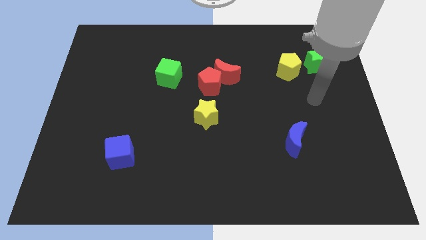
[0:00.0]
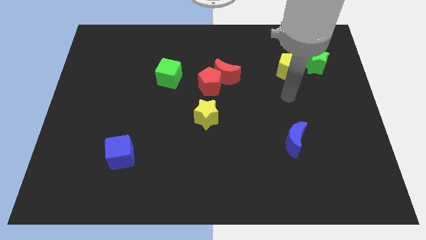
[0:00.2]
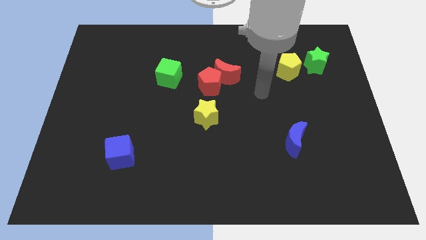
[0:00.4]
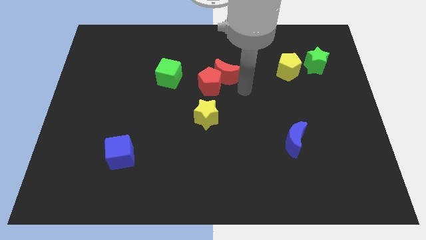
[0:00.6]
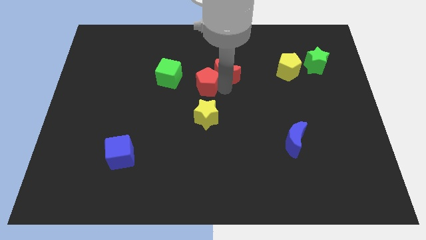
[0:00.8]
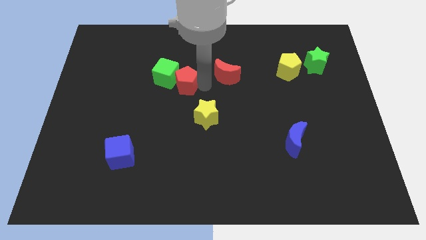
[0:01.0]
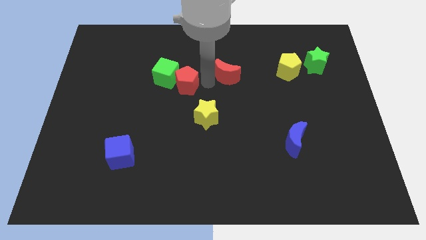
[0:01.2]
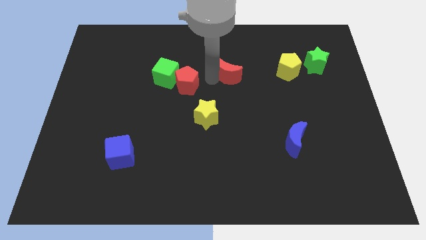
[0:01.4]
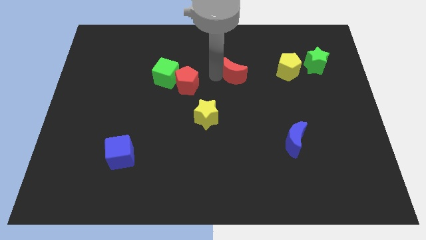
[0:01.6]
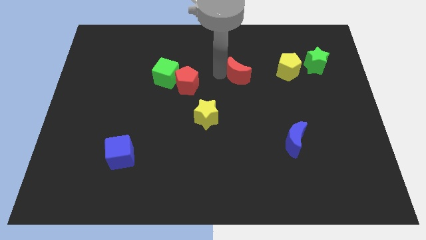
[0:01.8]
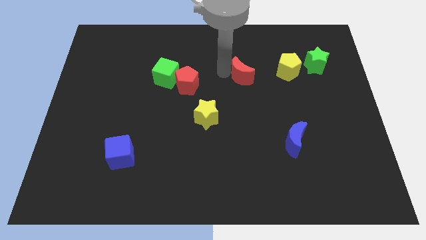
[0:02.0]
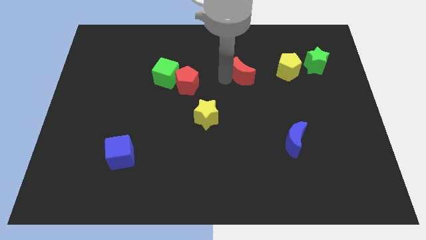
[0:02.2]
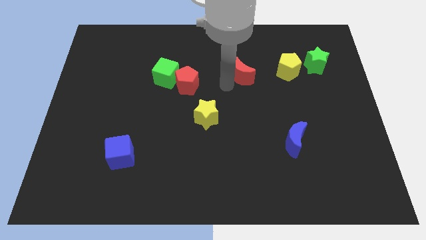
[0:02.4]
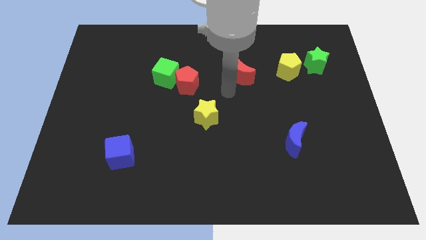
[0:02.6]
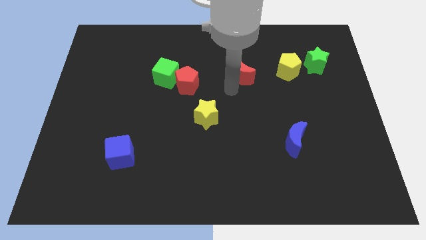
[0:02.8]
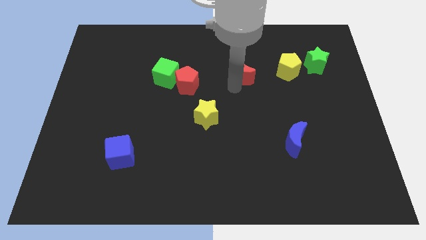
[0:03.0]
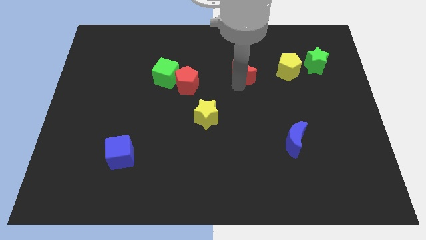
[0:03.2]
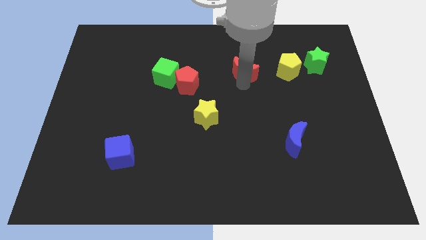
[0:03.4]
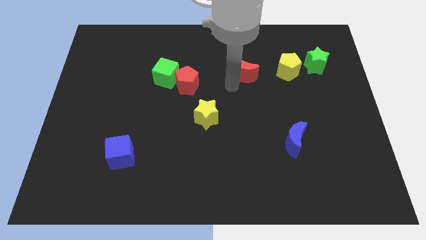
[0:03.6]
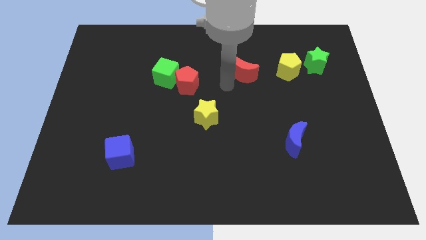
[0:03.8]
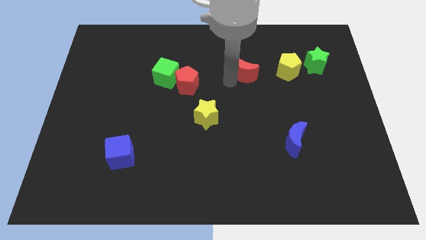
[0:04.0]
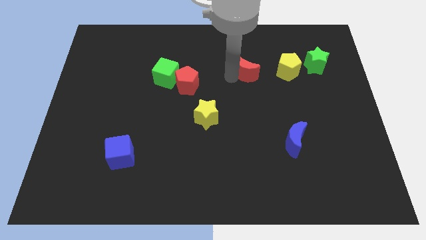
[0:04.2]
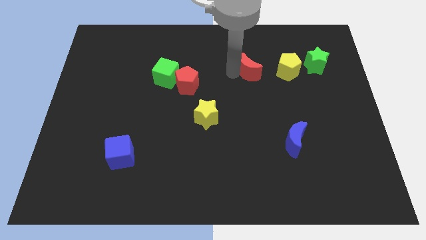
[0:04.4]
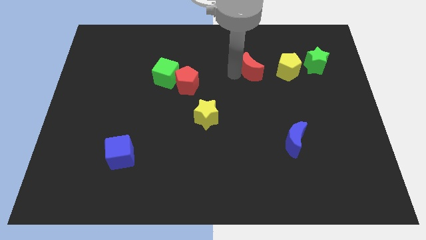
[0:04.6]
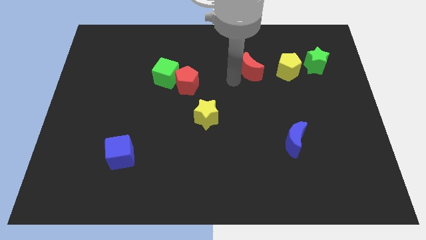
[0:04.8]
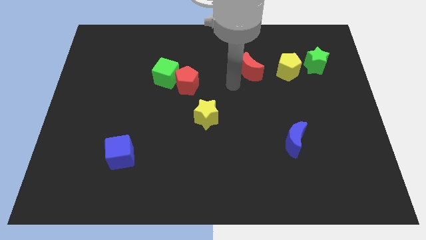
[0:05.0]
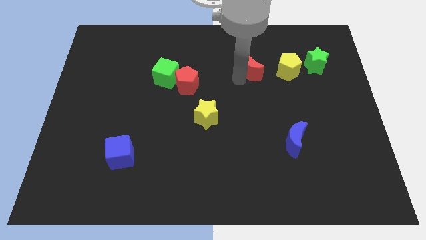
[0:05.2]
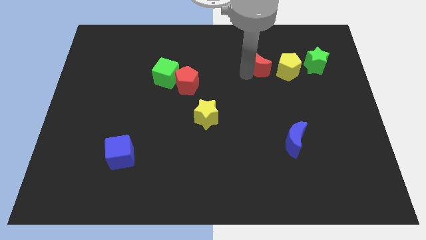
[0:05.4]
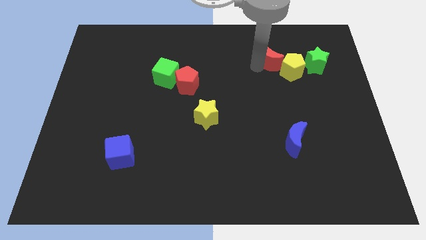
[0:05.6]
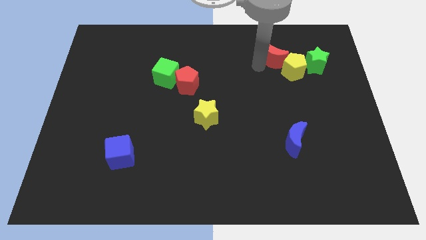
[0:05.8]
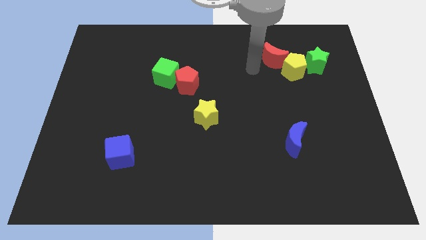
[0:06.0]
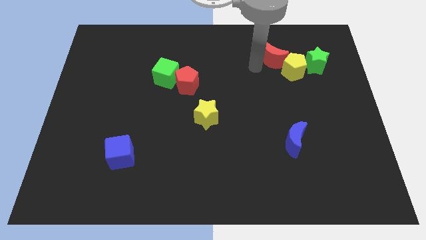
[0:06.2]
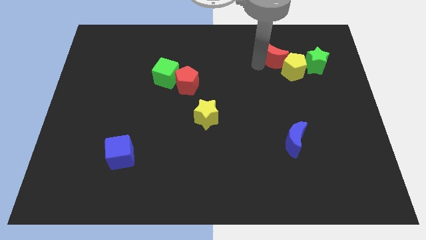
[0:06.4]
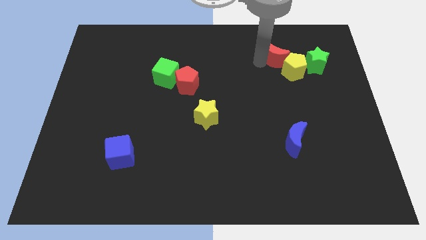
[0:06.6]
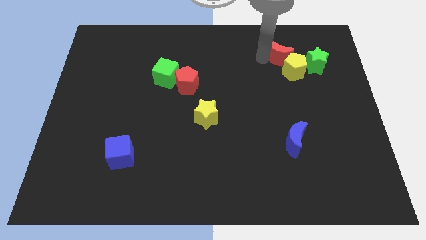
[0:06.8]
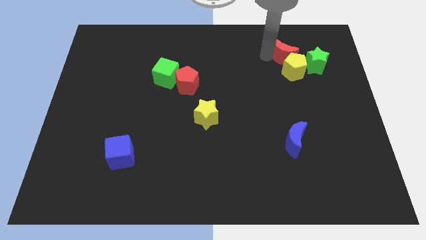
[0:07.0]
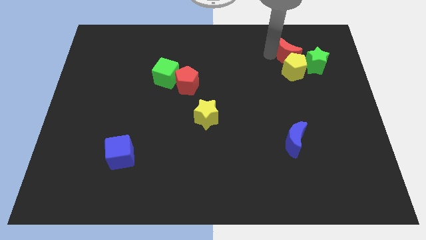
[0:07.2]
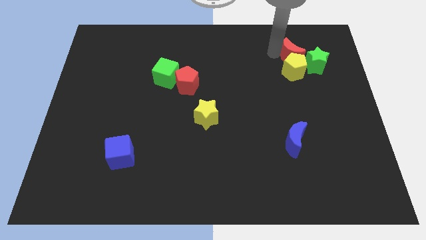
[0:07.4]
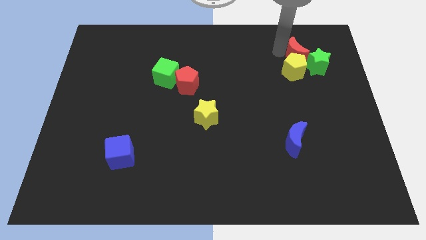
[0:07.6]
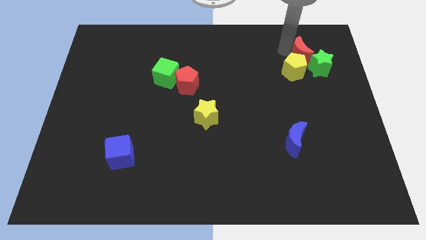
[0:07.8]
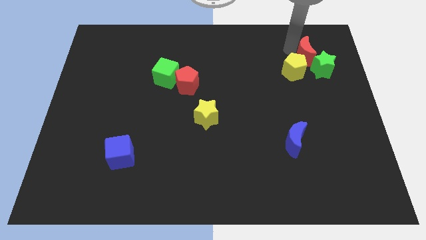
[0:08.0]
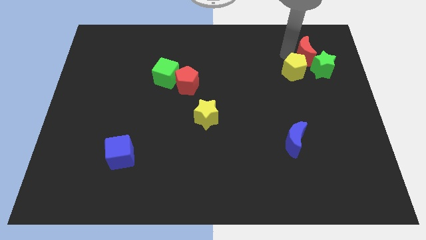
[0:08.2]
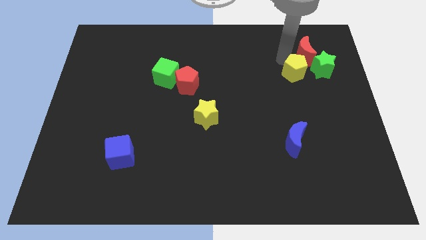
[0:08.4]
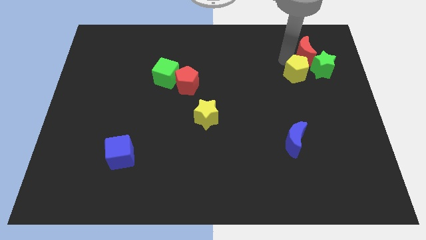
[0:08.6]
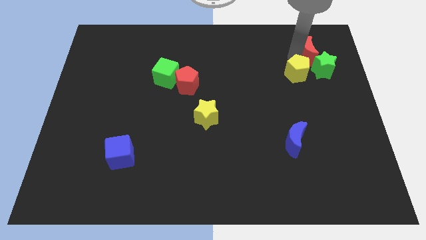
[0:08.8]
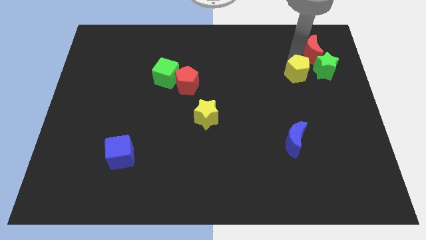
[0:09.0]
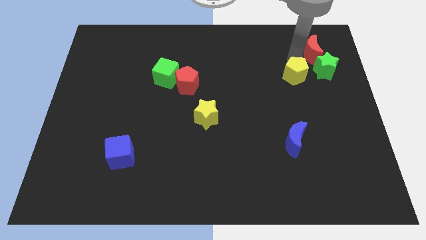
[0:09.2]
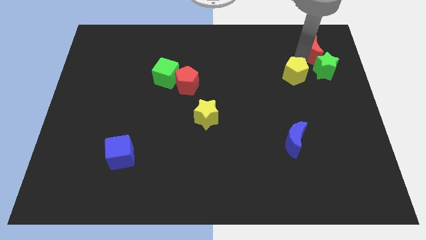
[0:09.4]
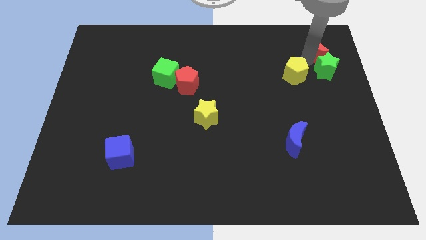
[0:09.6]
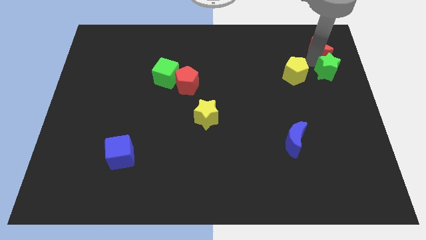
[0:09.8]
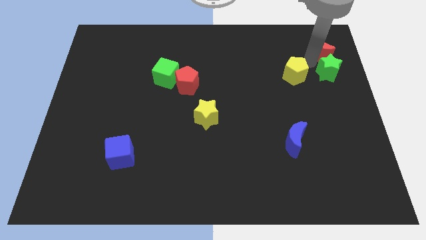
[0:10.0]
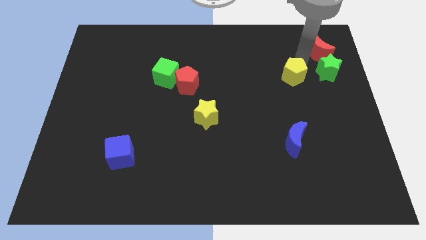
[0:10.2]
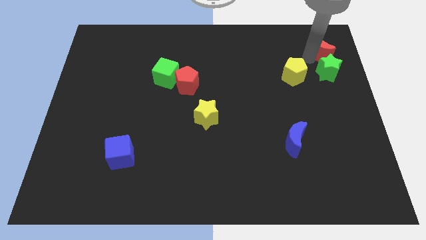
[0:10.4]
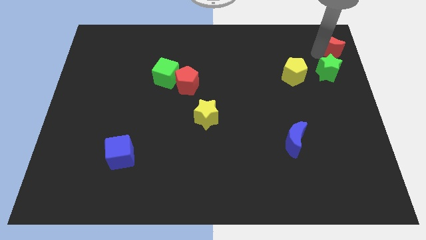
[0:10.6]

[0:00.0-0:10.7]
push the red moon to the top right
